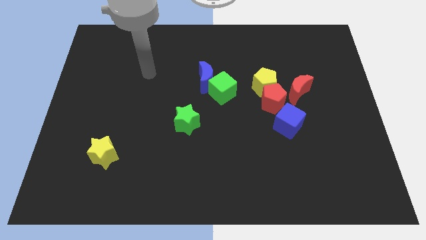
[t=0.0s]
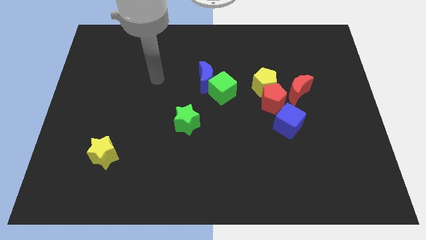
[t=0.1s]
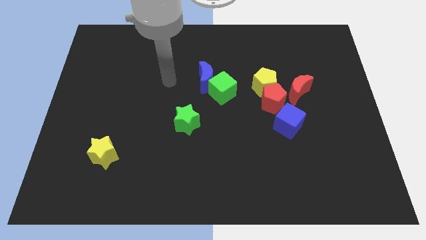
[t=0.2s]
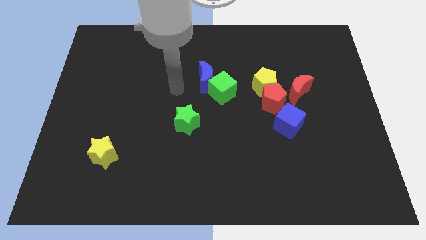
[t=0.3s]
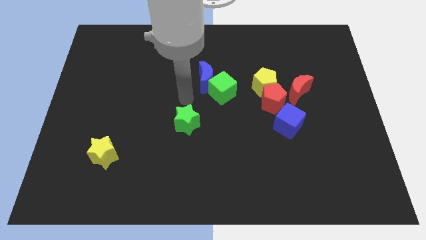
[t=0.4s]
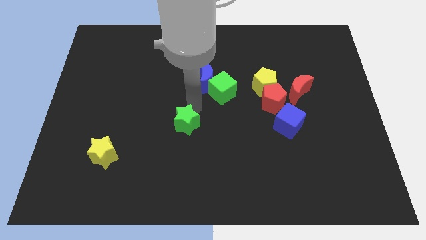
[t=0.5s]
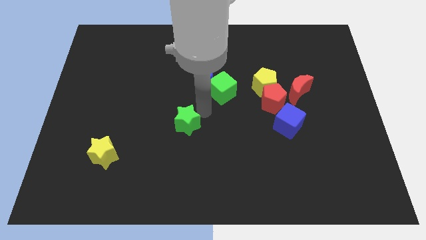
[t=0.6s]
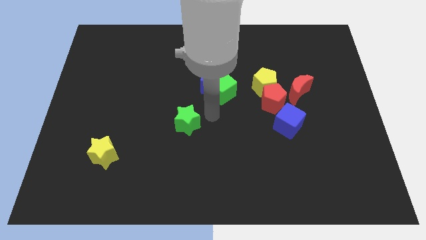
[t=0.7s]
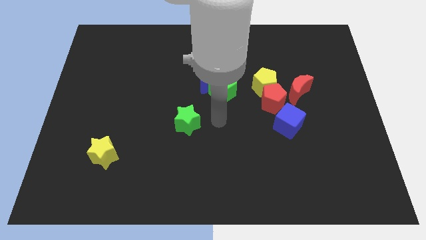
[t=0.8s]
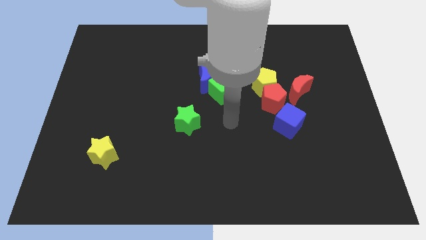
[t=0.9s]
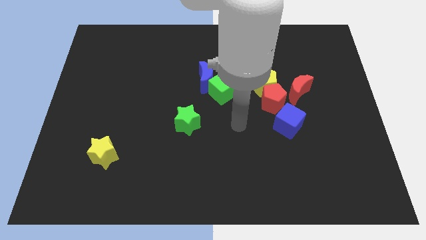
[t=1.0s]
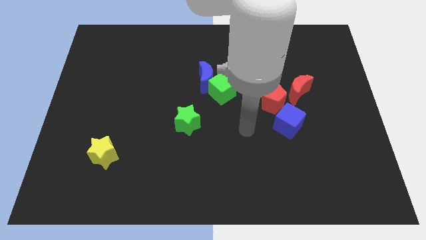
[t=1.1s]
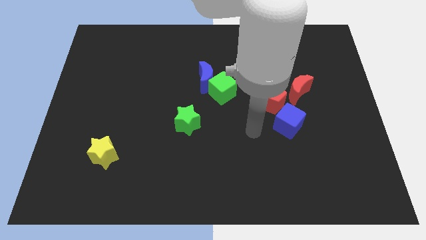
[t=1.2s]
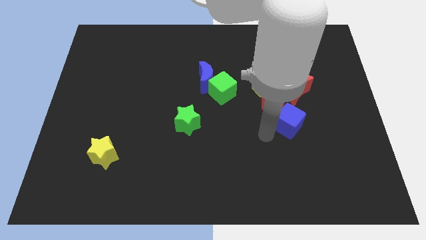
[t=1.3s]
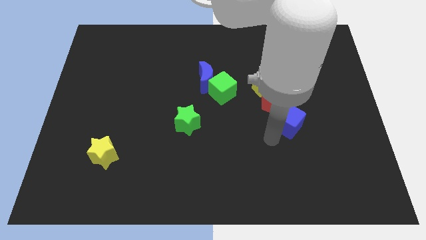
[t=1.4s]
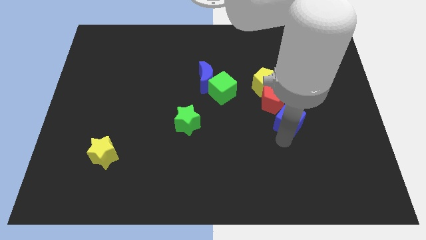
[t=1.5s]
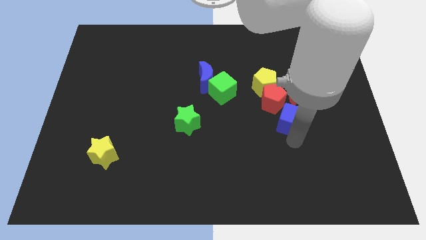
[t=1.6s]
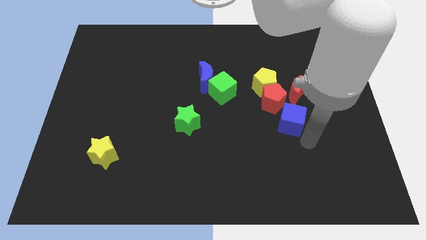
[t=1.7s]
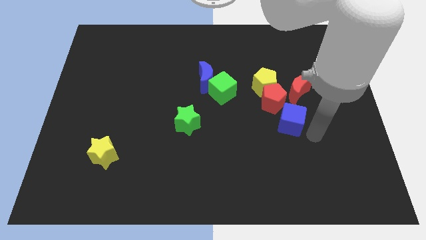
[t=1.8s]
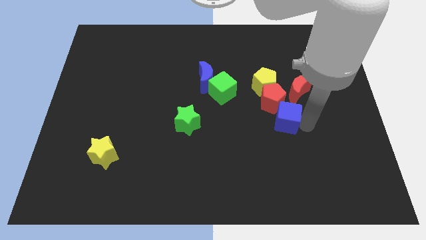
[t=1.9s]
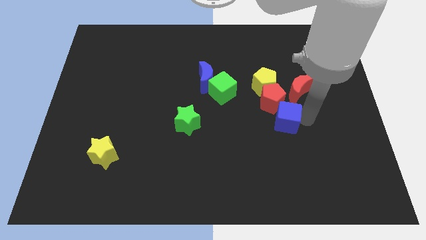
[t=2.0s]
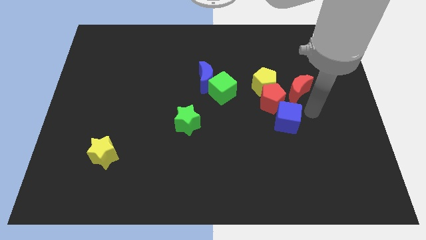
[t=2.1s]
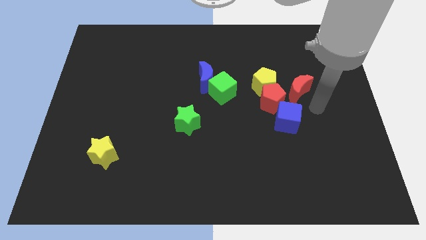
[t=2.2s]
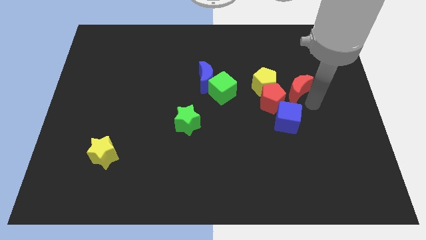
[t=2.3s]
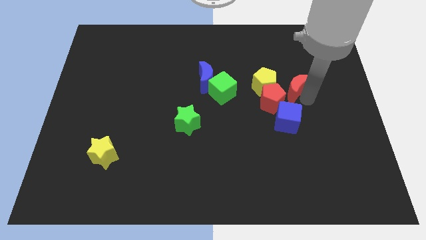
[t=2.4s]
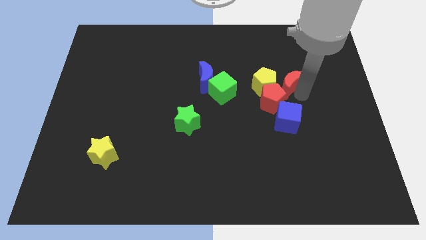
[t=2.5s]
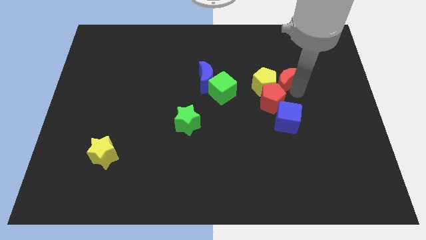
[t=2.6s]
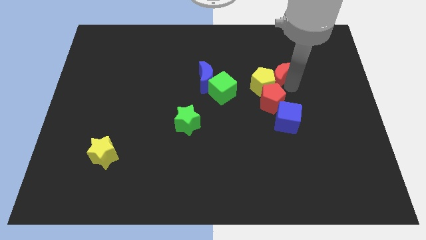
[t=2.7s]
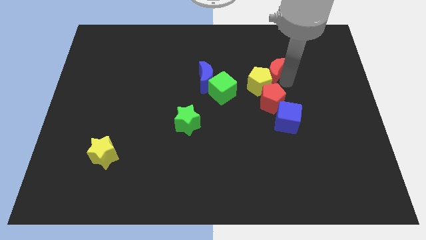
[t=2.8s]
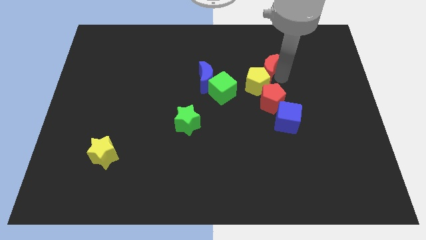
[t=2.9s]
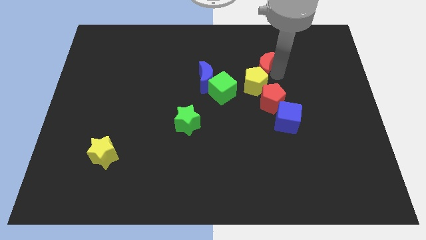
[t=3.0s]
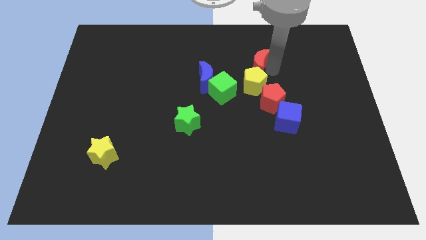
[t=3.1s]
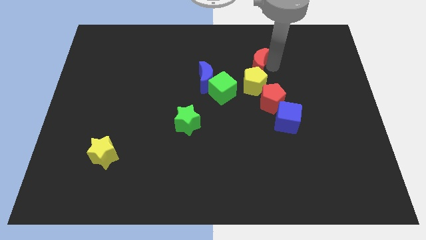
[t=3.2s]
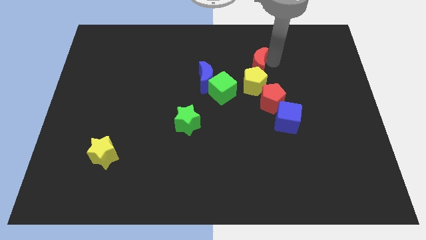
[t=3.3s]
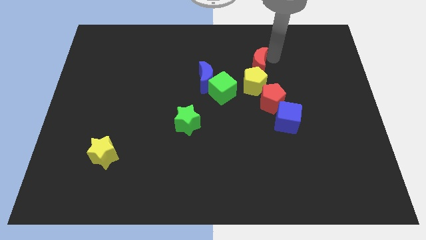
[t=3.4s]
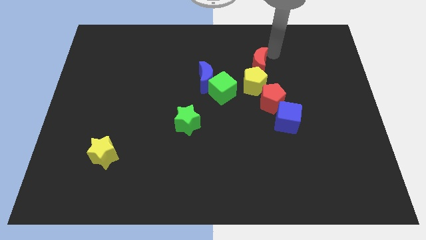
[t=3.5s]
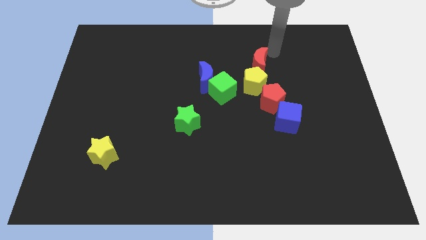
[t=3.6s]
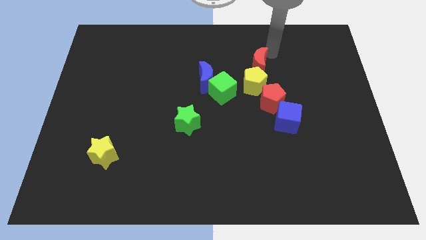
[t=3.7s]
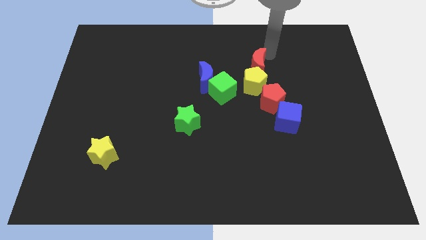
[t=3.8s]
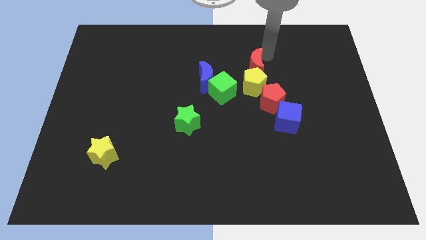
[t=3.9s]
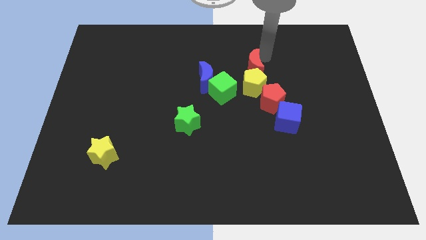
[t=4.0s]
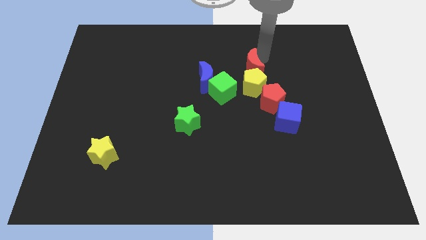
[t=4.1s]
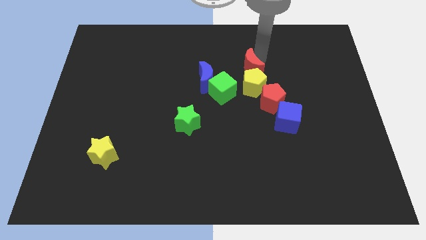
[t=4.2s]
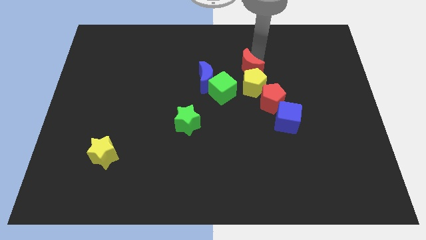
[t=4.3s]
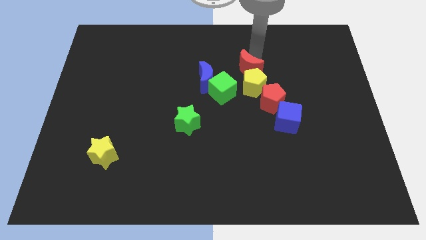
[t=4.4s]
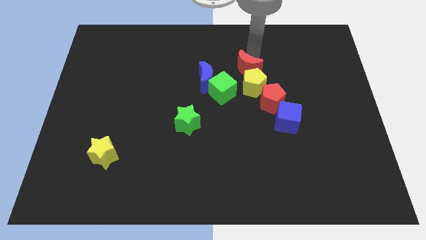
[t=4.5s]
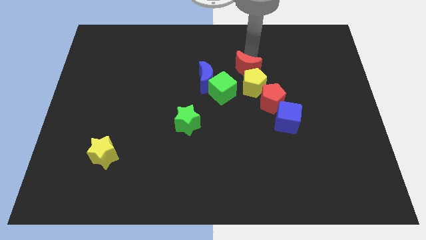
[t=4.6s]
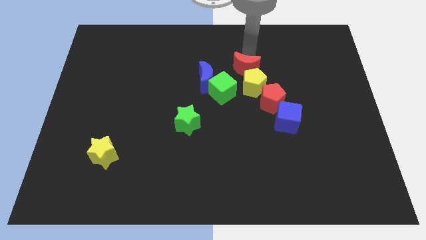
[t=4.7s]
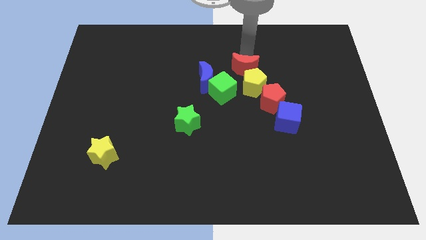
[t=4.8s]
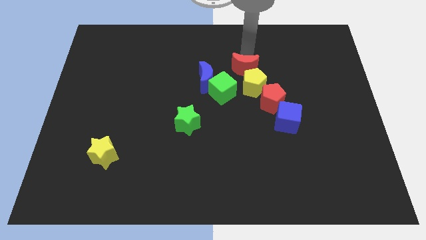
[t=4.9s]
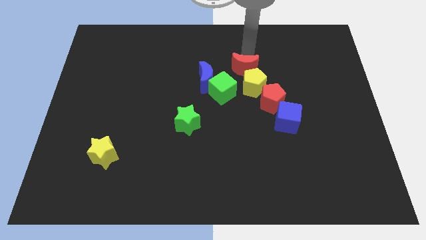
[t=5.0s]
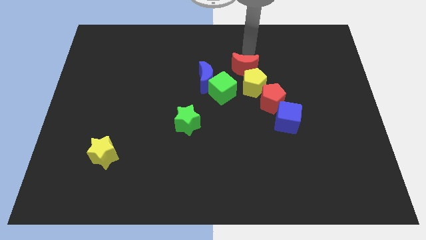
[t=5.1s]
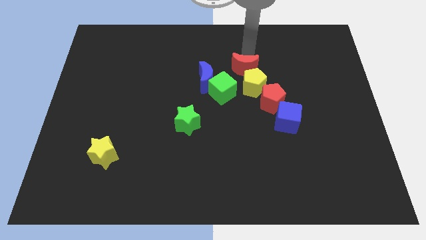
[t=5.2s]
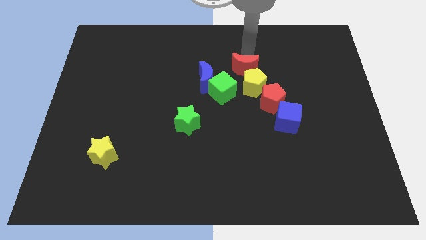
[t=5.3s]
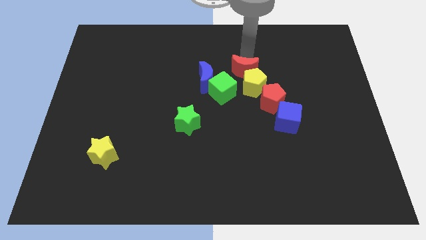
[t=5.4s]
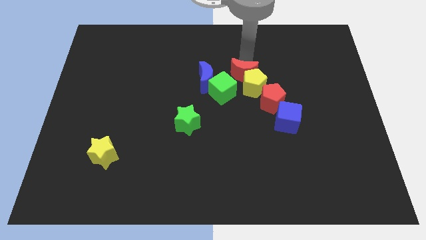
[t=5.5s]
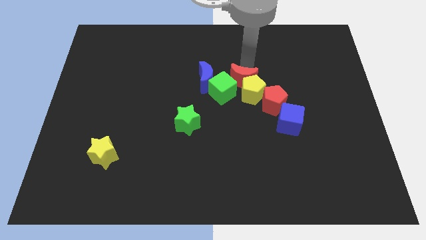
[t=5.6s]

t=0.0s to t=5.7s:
slide the red moon towards the green cube

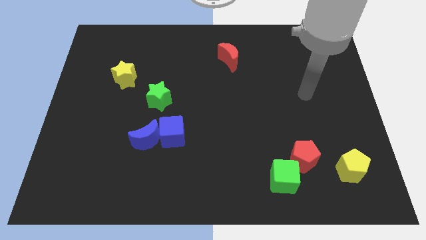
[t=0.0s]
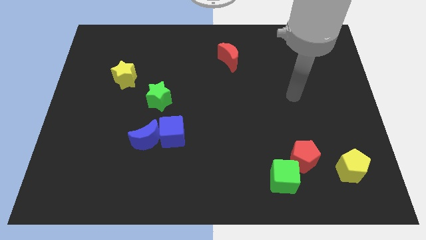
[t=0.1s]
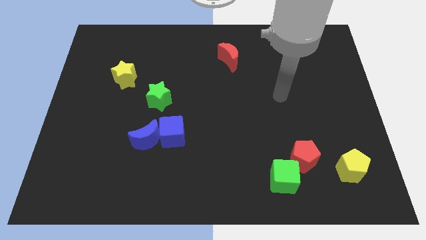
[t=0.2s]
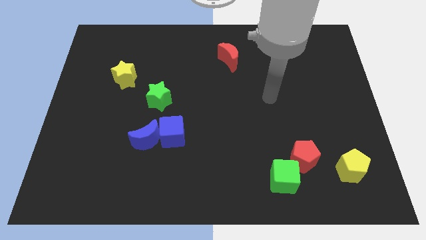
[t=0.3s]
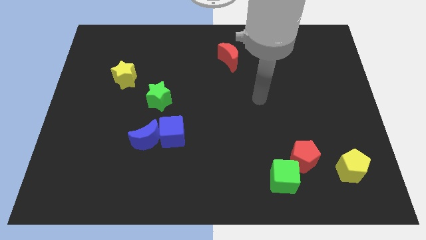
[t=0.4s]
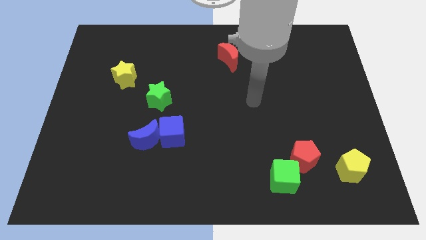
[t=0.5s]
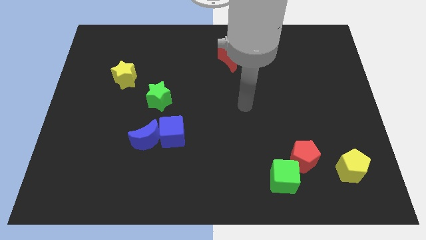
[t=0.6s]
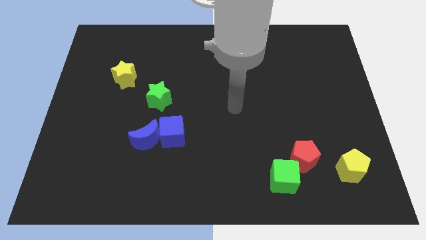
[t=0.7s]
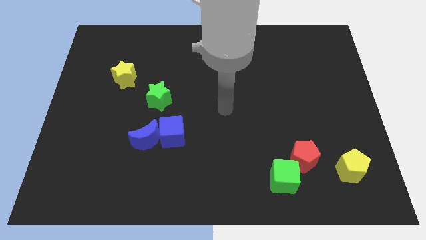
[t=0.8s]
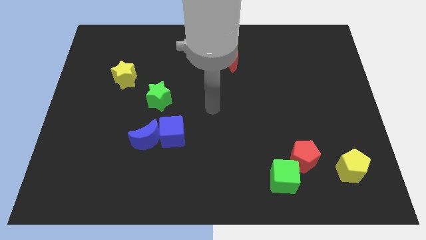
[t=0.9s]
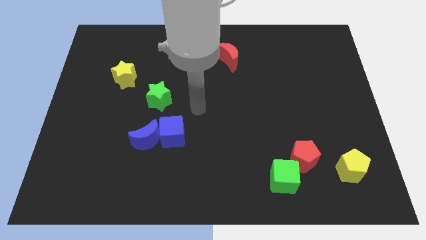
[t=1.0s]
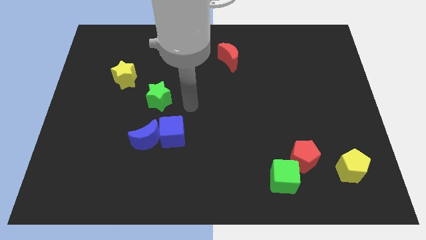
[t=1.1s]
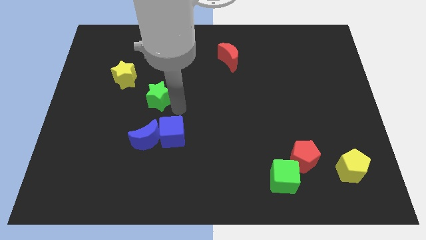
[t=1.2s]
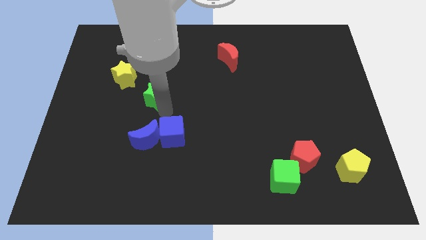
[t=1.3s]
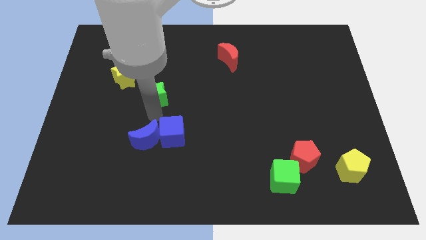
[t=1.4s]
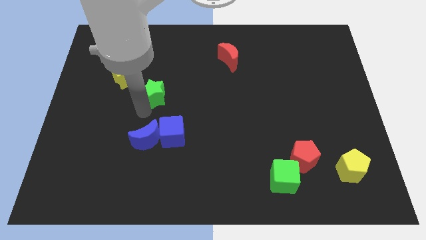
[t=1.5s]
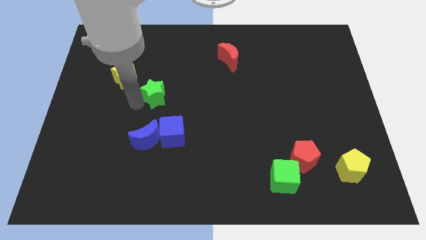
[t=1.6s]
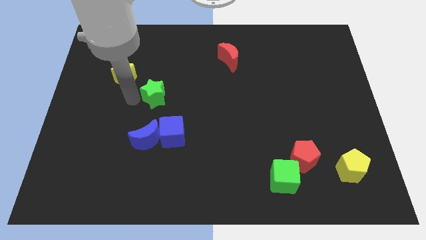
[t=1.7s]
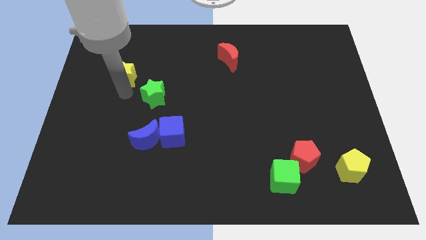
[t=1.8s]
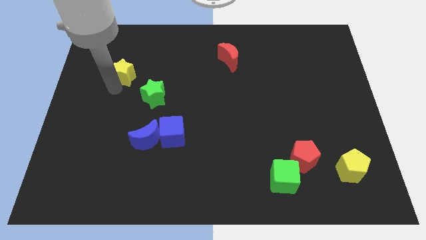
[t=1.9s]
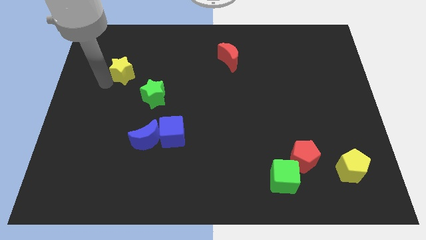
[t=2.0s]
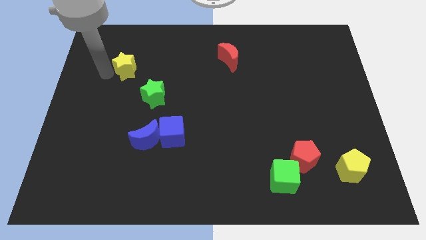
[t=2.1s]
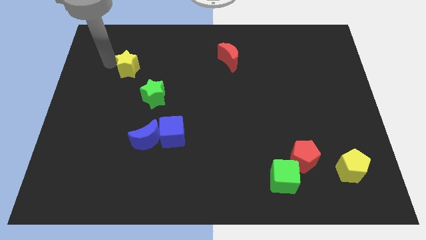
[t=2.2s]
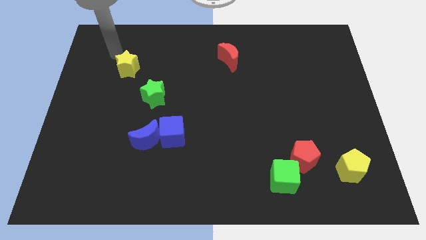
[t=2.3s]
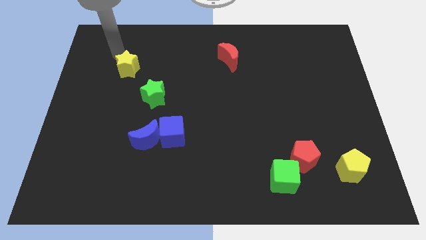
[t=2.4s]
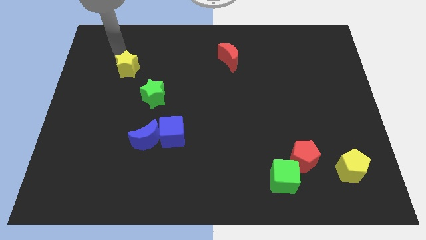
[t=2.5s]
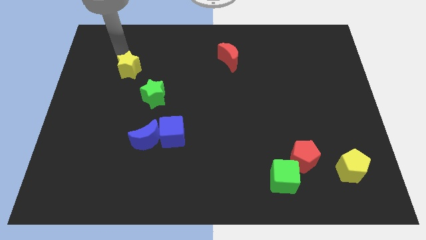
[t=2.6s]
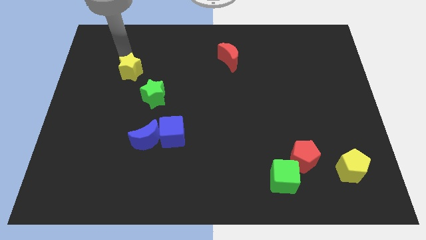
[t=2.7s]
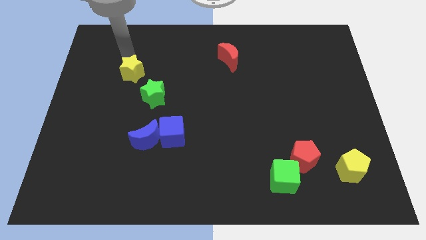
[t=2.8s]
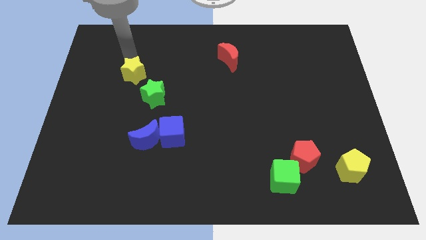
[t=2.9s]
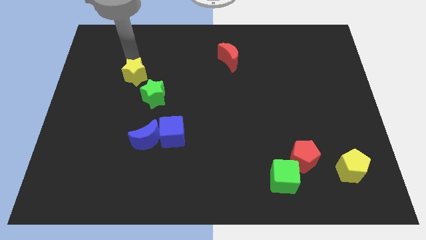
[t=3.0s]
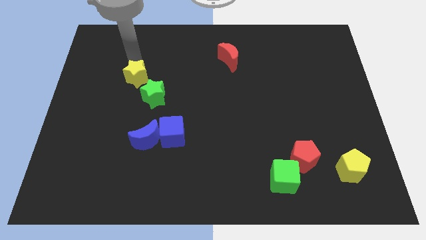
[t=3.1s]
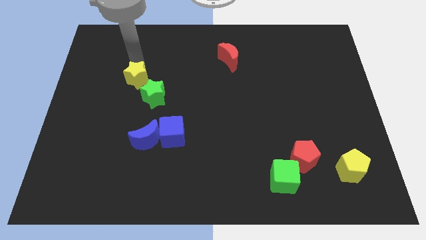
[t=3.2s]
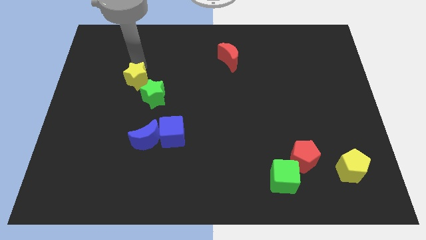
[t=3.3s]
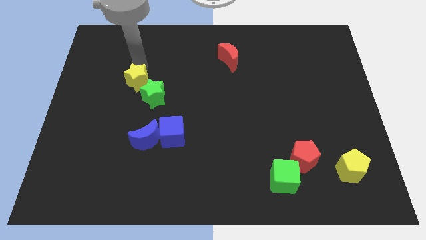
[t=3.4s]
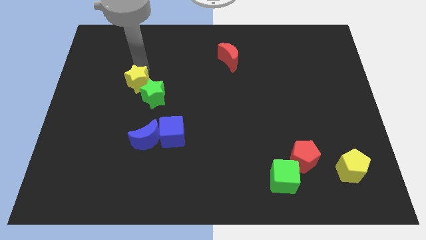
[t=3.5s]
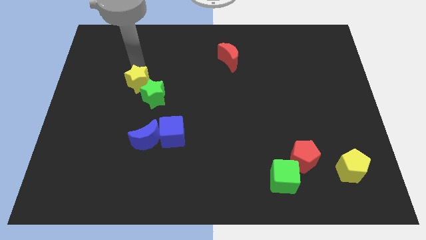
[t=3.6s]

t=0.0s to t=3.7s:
move the yellow star close to the green star
